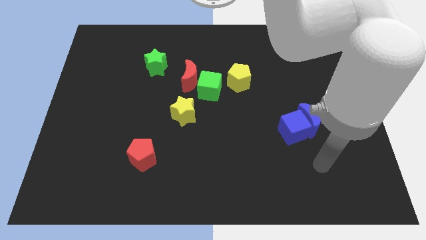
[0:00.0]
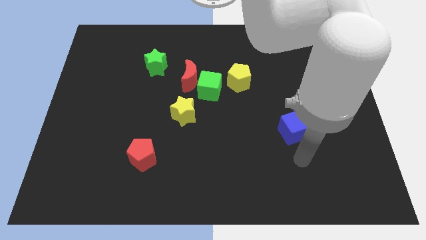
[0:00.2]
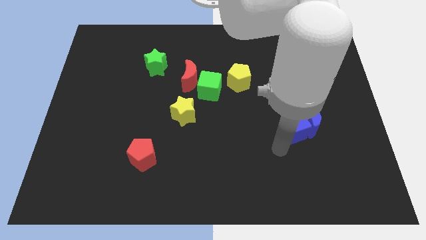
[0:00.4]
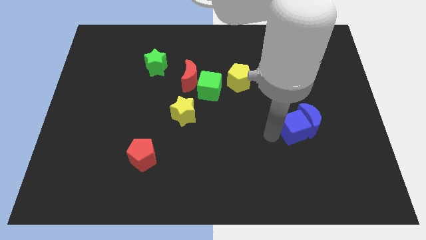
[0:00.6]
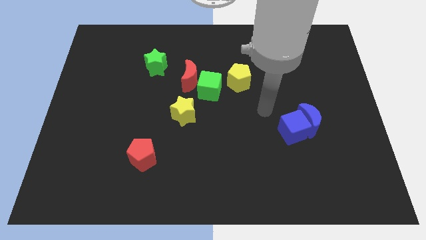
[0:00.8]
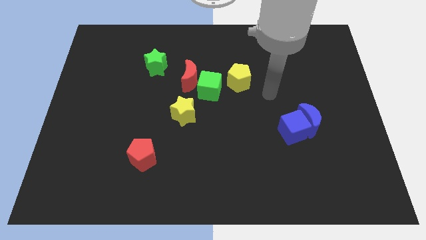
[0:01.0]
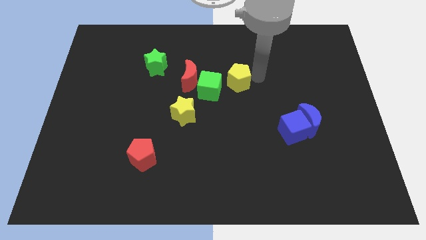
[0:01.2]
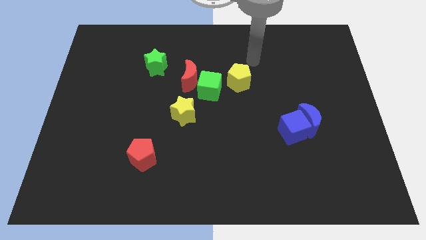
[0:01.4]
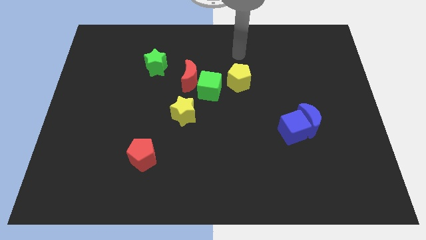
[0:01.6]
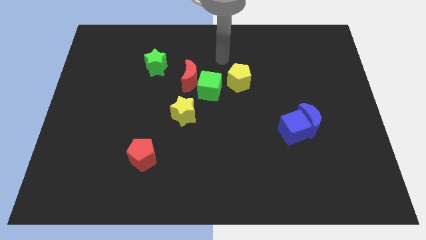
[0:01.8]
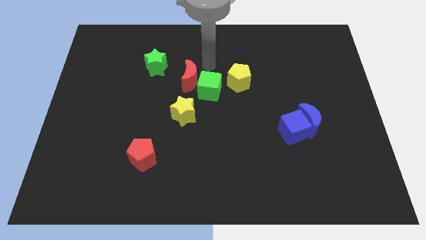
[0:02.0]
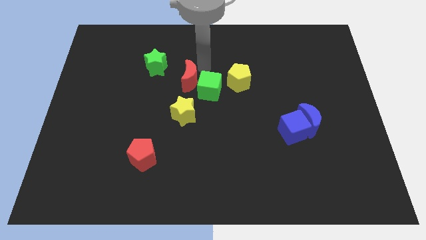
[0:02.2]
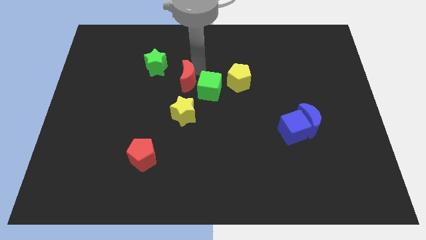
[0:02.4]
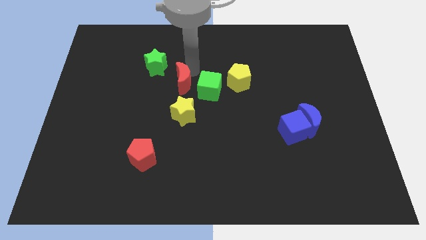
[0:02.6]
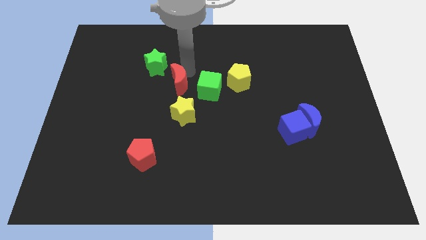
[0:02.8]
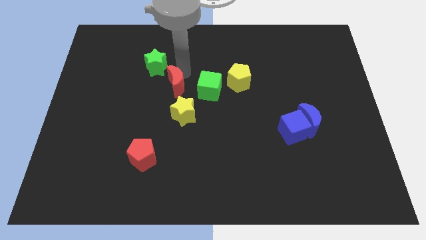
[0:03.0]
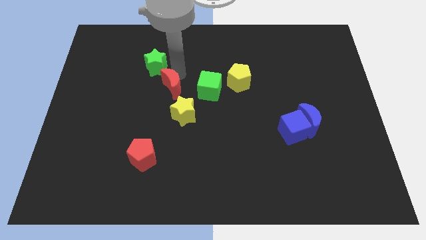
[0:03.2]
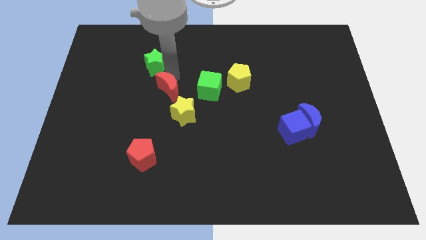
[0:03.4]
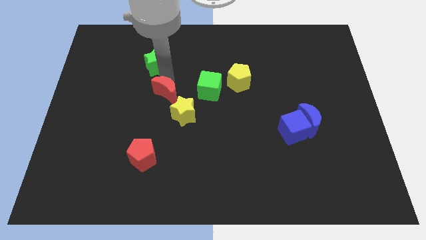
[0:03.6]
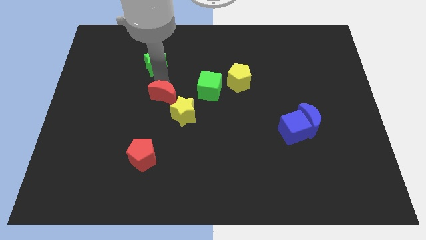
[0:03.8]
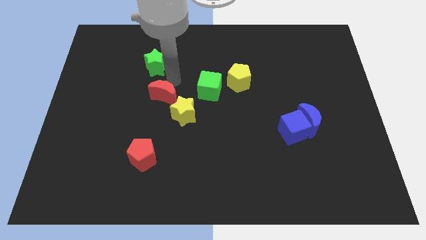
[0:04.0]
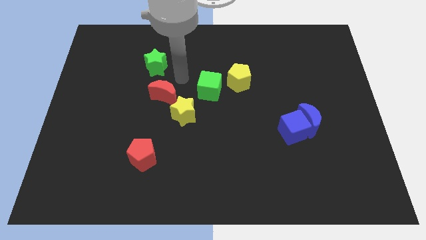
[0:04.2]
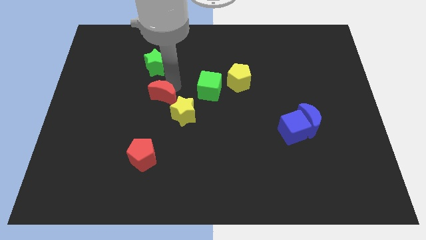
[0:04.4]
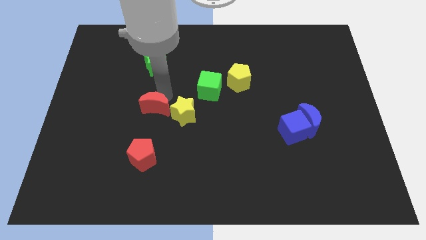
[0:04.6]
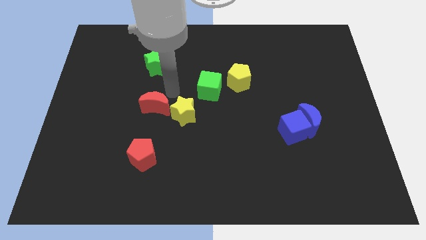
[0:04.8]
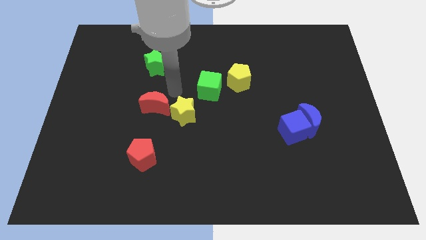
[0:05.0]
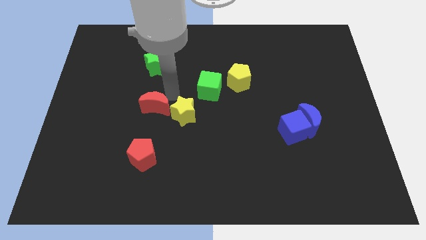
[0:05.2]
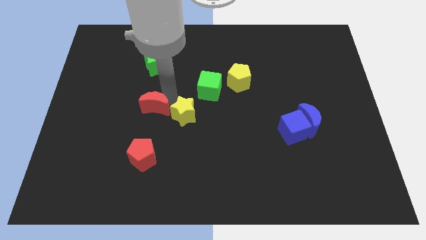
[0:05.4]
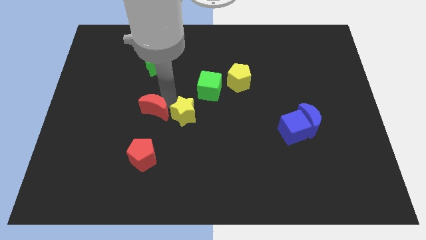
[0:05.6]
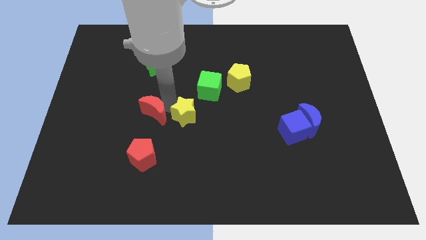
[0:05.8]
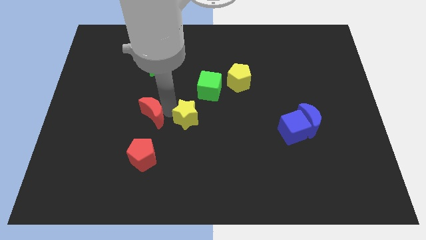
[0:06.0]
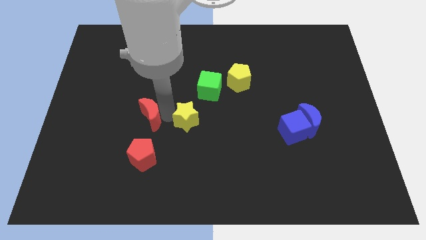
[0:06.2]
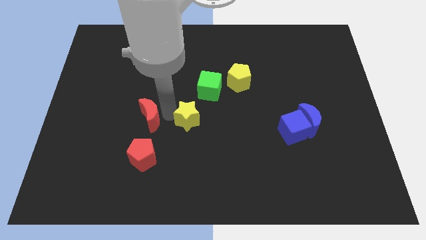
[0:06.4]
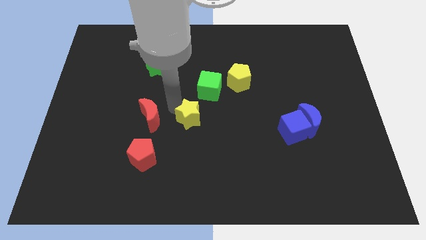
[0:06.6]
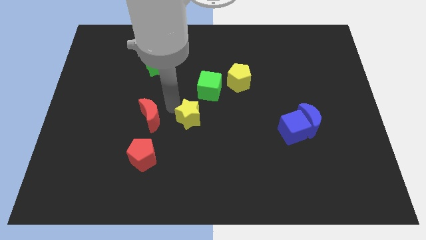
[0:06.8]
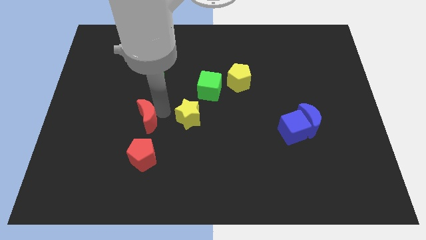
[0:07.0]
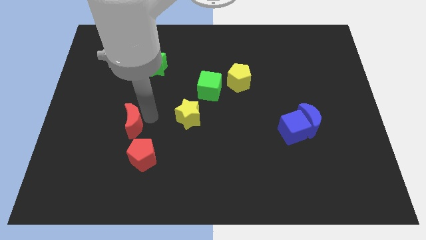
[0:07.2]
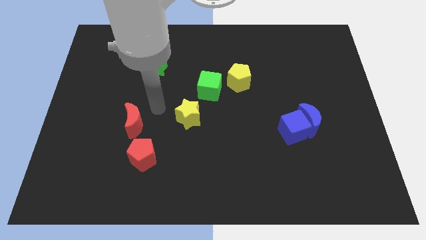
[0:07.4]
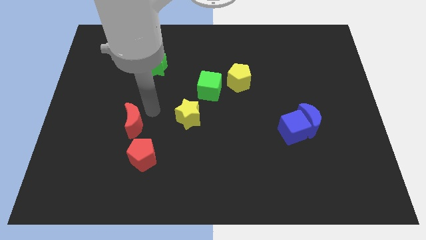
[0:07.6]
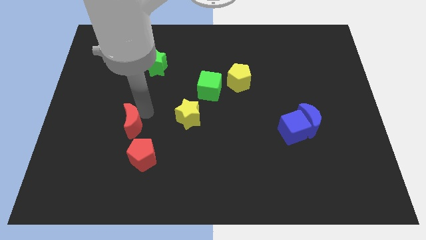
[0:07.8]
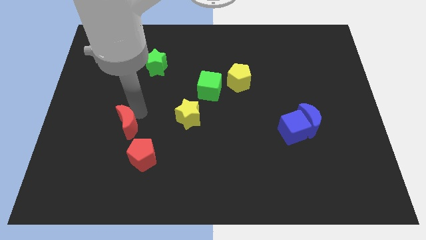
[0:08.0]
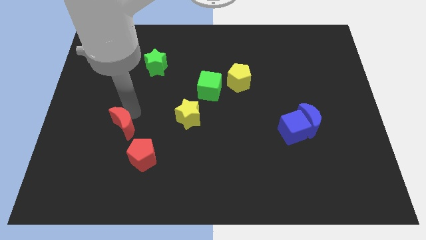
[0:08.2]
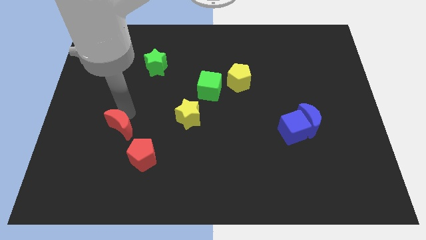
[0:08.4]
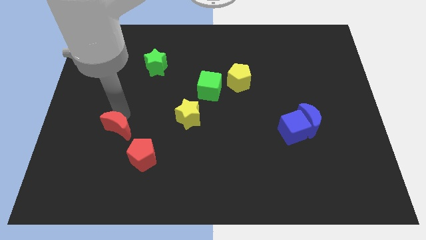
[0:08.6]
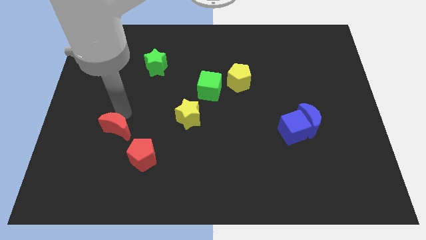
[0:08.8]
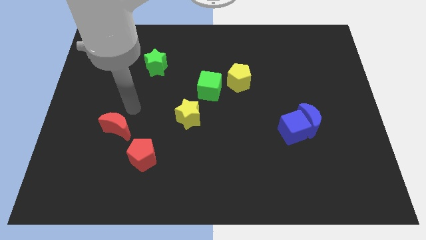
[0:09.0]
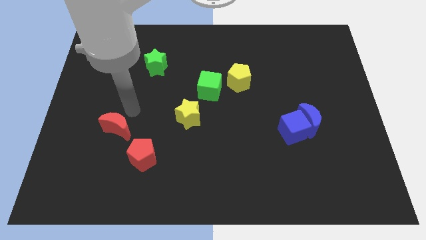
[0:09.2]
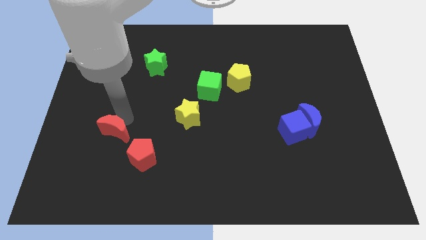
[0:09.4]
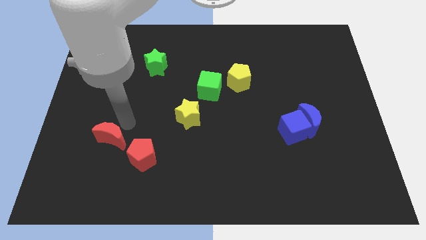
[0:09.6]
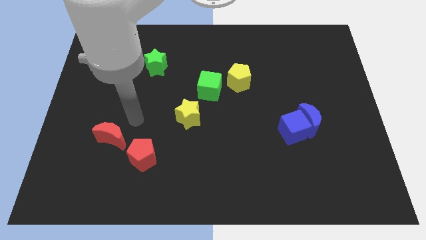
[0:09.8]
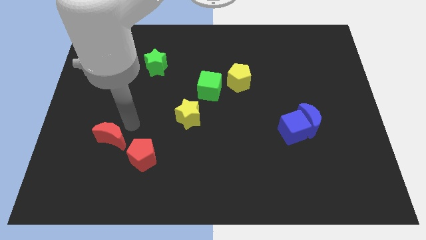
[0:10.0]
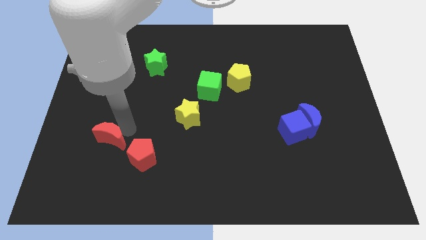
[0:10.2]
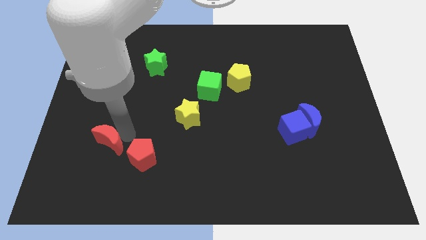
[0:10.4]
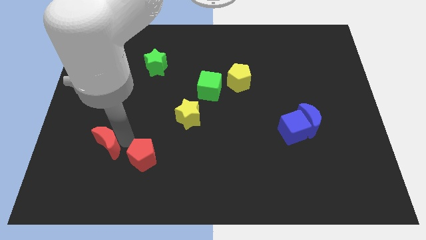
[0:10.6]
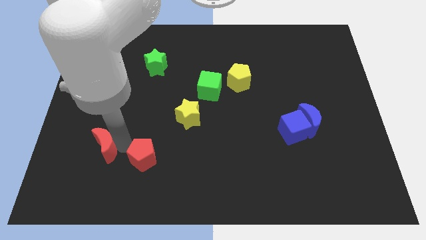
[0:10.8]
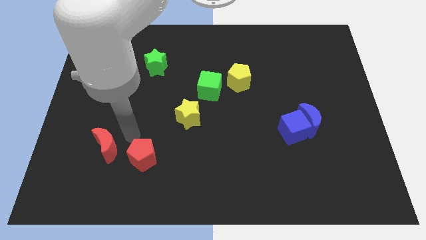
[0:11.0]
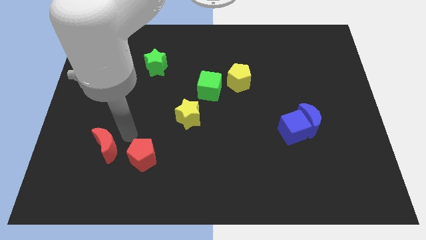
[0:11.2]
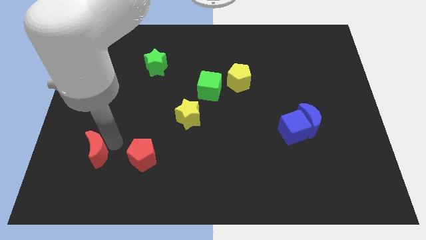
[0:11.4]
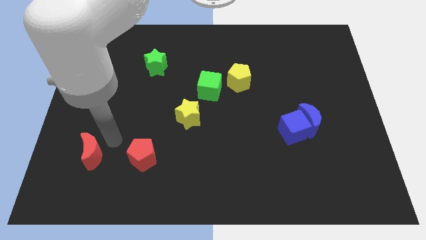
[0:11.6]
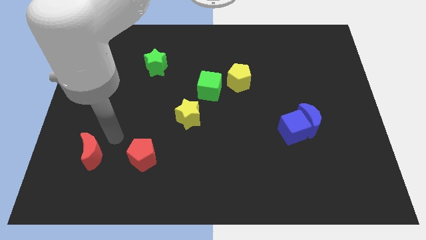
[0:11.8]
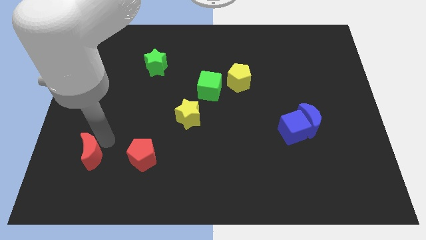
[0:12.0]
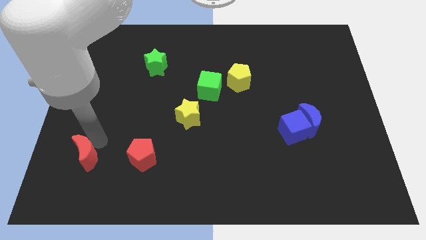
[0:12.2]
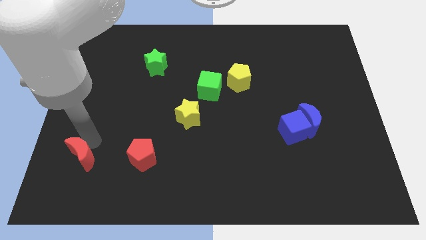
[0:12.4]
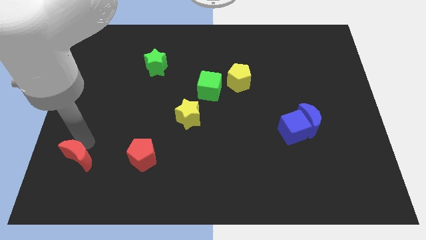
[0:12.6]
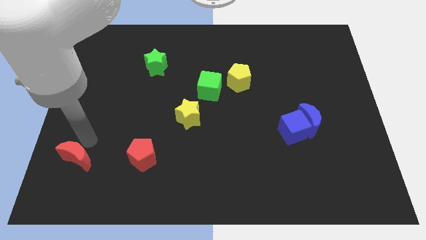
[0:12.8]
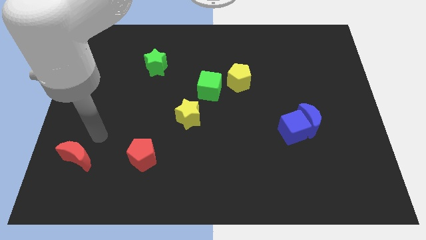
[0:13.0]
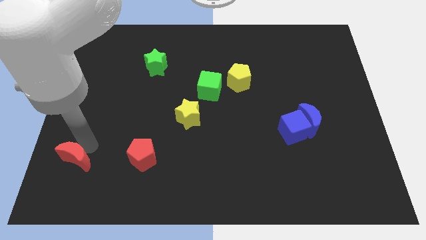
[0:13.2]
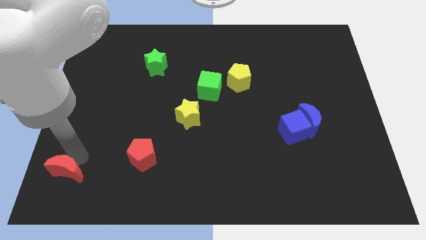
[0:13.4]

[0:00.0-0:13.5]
push the red moon to the bottom left of the board

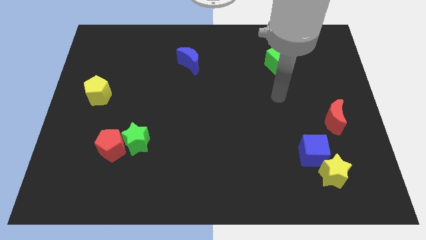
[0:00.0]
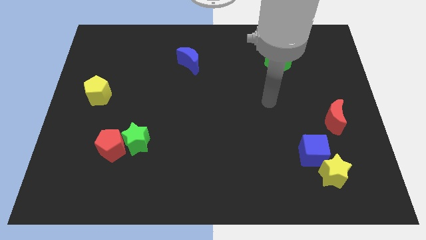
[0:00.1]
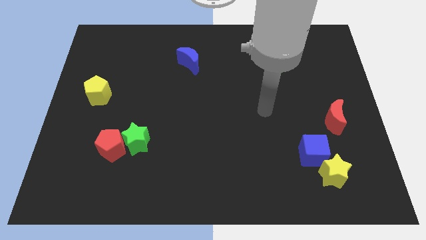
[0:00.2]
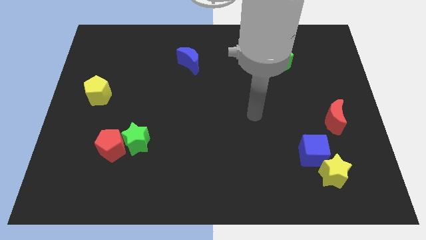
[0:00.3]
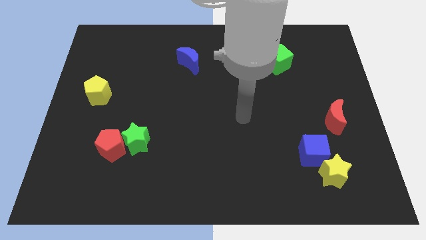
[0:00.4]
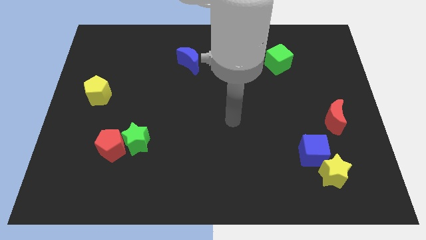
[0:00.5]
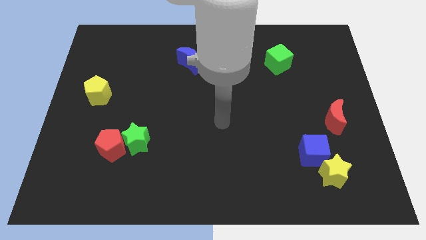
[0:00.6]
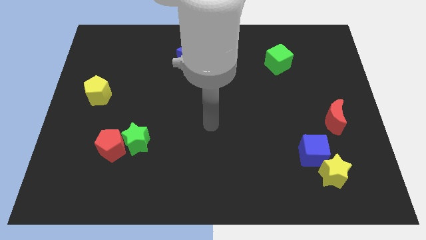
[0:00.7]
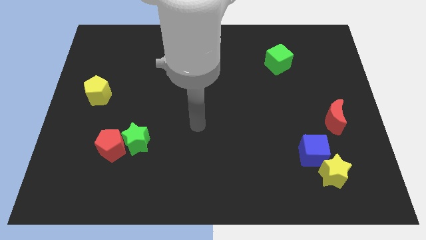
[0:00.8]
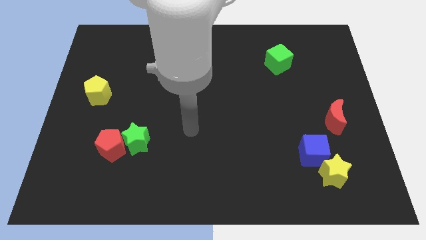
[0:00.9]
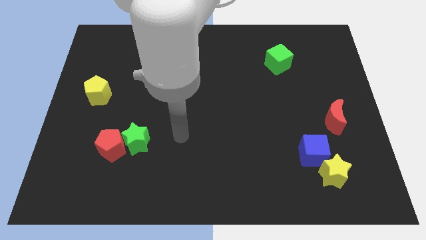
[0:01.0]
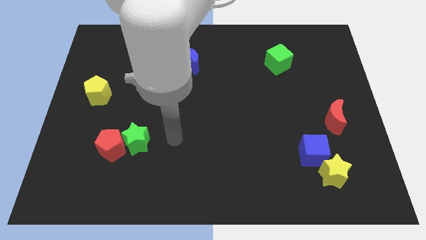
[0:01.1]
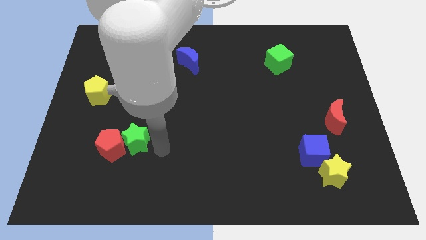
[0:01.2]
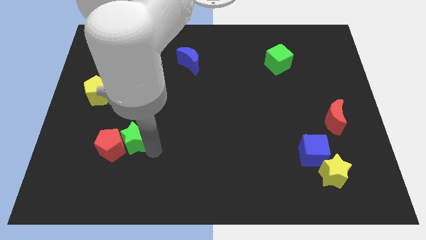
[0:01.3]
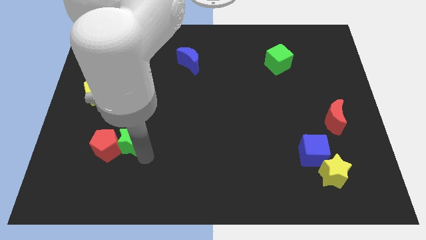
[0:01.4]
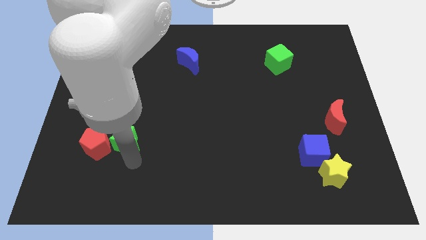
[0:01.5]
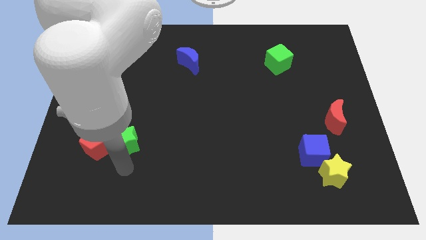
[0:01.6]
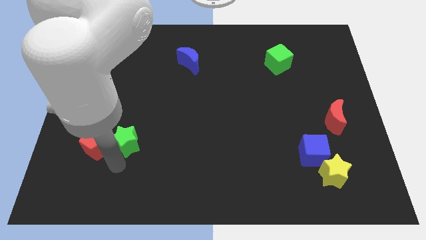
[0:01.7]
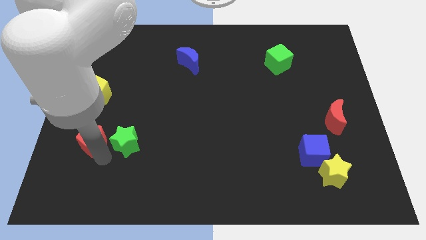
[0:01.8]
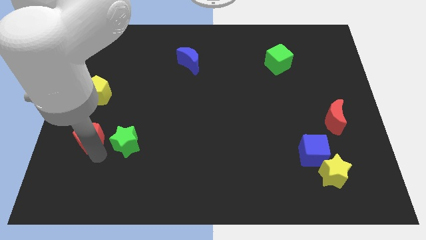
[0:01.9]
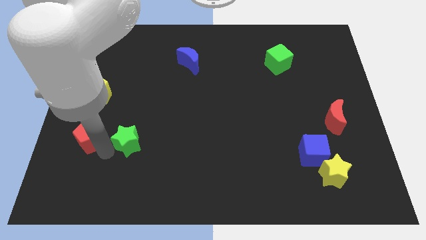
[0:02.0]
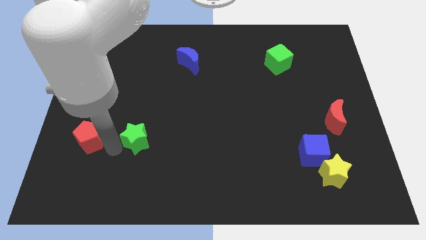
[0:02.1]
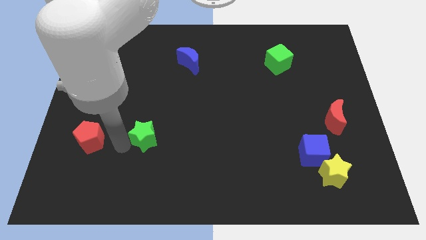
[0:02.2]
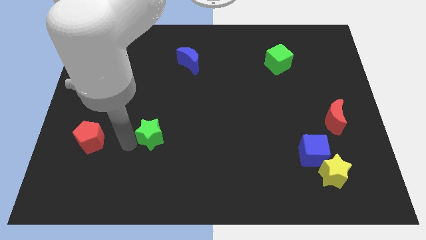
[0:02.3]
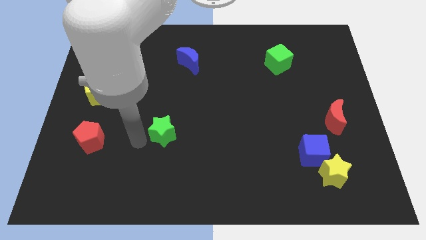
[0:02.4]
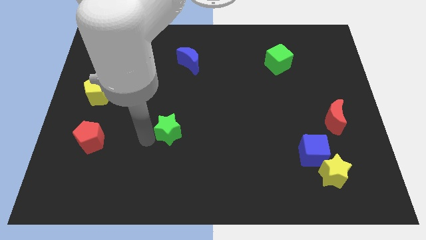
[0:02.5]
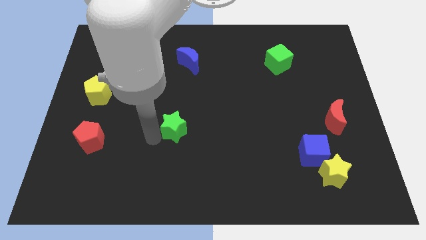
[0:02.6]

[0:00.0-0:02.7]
push the green star to the center of the board
